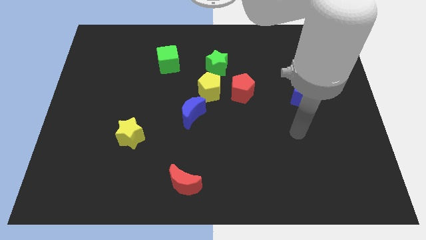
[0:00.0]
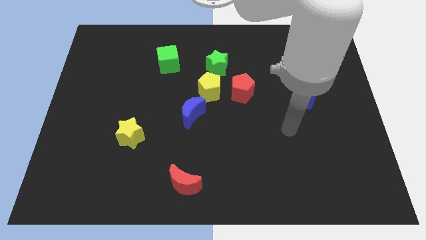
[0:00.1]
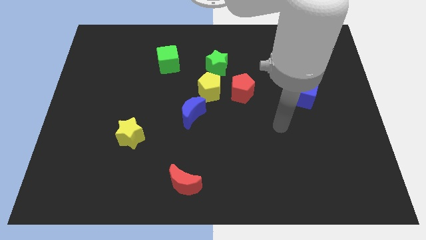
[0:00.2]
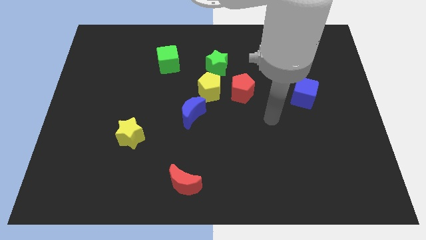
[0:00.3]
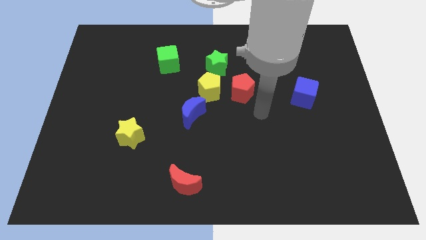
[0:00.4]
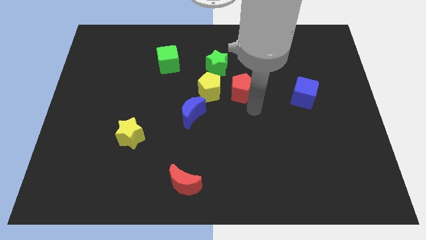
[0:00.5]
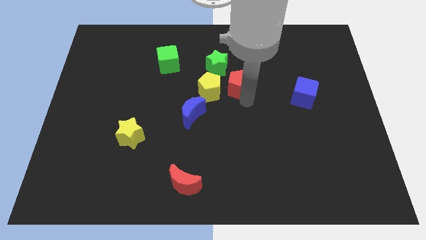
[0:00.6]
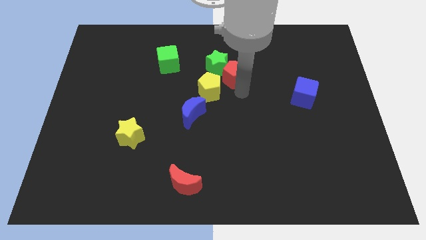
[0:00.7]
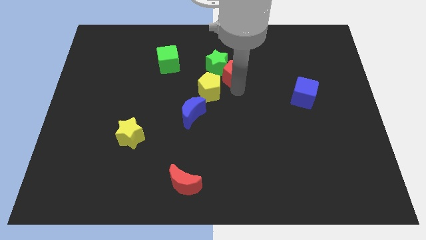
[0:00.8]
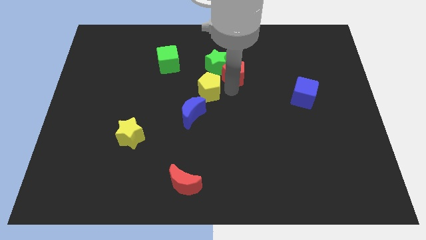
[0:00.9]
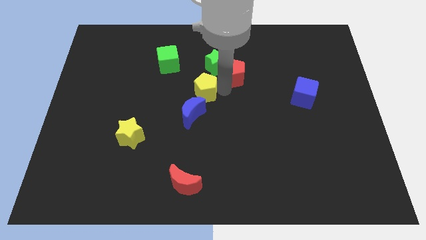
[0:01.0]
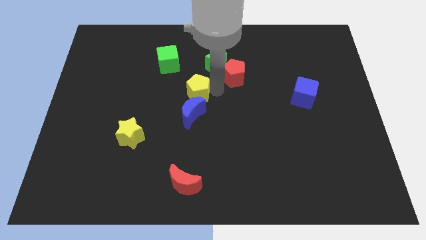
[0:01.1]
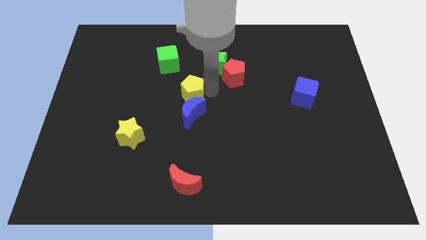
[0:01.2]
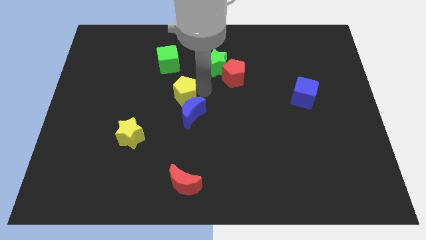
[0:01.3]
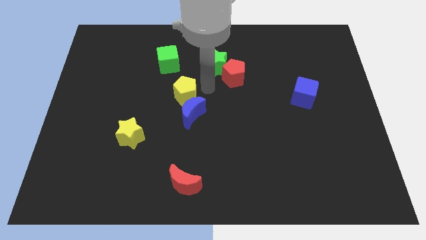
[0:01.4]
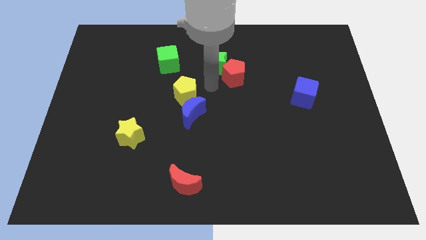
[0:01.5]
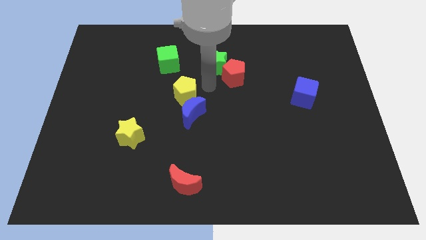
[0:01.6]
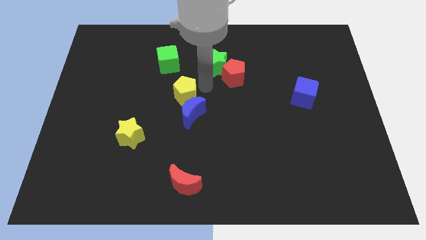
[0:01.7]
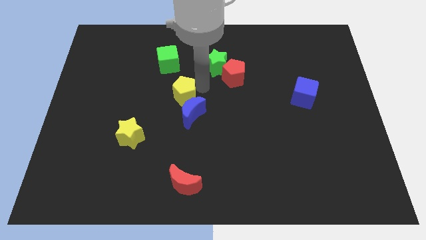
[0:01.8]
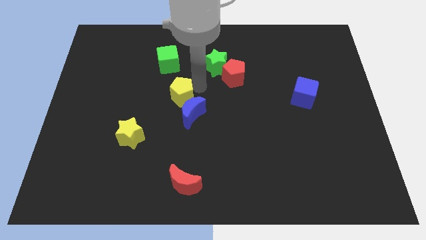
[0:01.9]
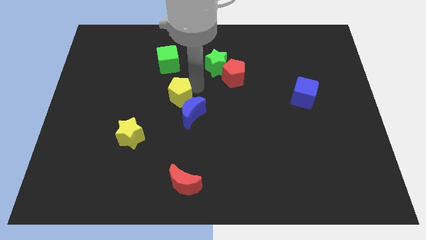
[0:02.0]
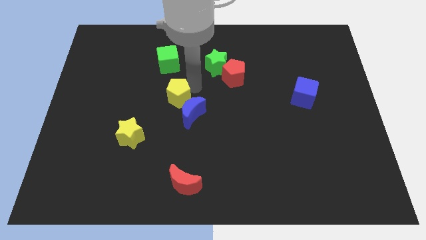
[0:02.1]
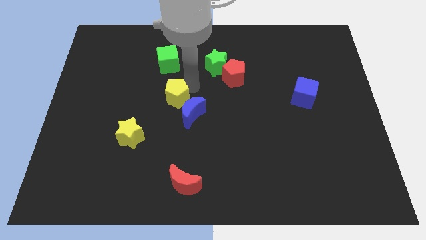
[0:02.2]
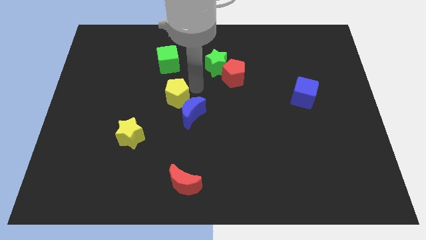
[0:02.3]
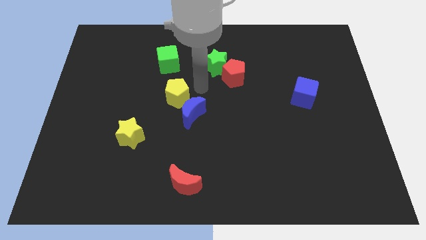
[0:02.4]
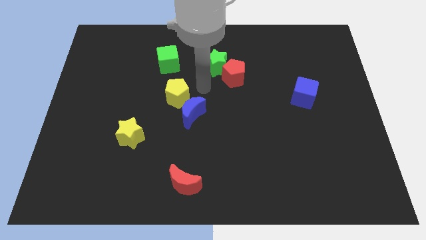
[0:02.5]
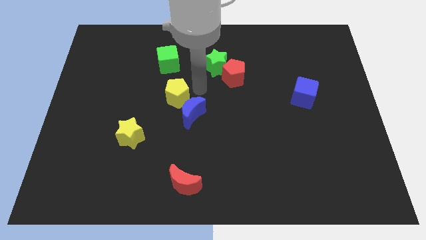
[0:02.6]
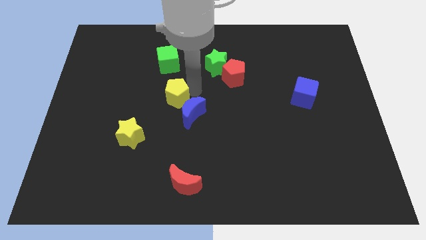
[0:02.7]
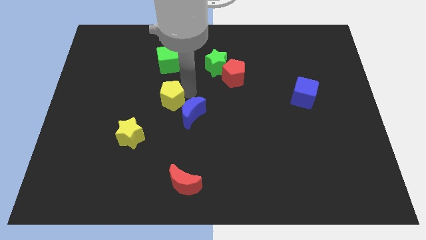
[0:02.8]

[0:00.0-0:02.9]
separate the yellow pentagon from the group

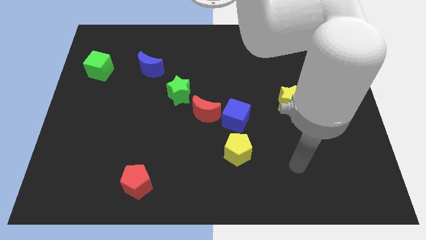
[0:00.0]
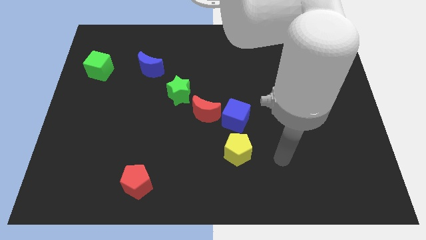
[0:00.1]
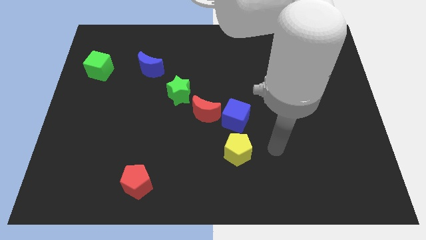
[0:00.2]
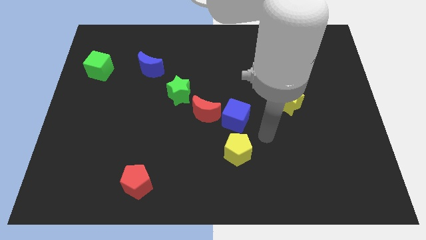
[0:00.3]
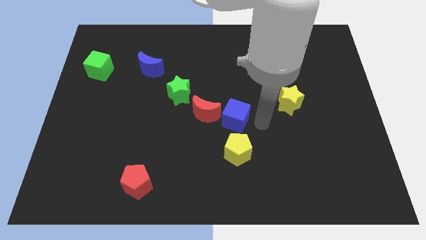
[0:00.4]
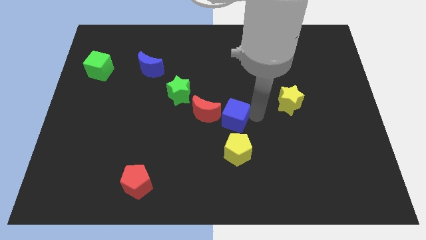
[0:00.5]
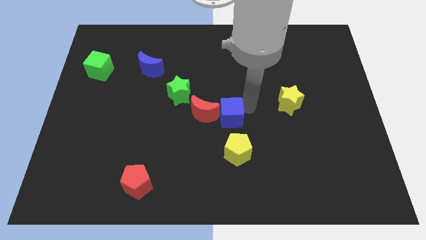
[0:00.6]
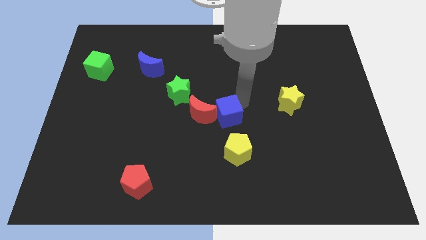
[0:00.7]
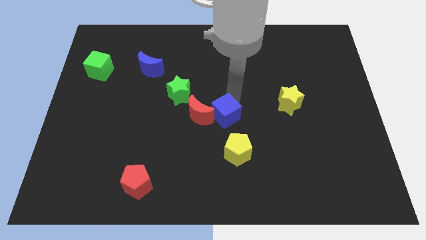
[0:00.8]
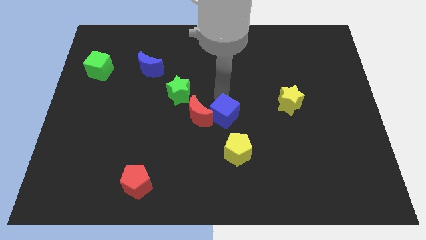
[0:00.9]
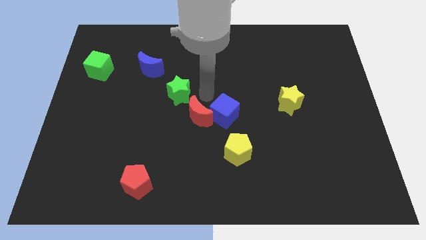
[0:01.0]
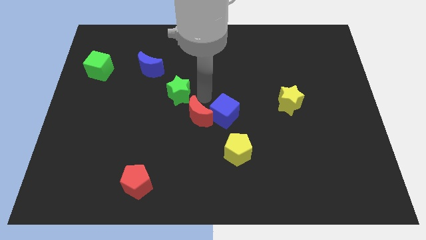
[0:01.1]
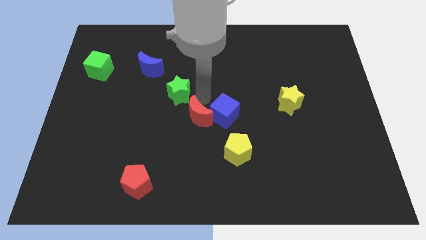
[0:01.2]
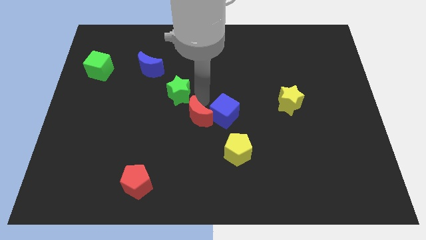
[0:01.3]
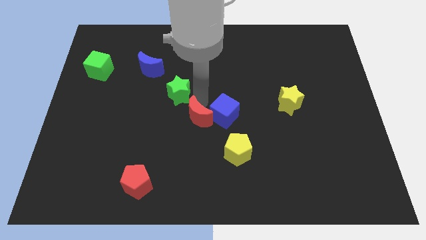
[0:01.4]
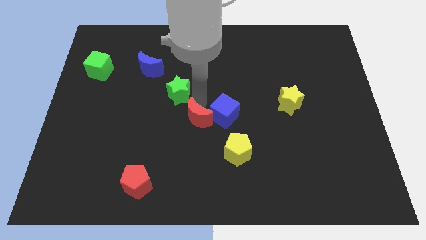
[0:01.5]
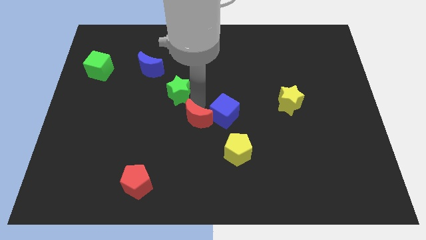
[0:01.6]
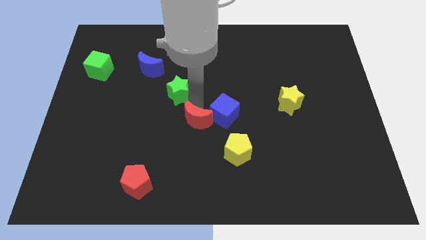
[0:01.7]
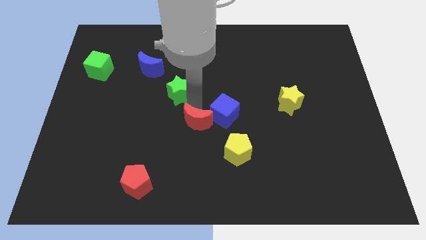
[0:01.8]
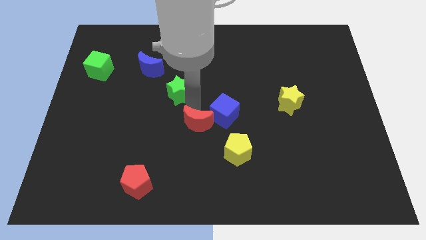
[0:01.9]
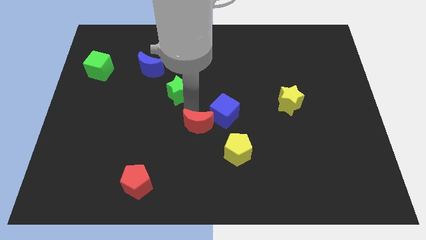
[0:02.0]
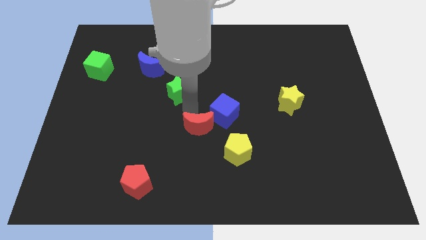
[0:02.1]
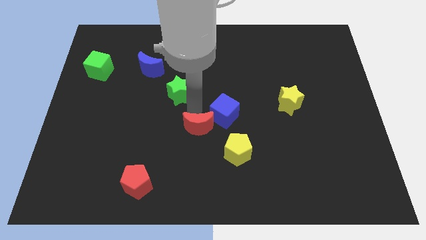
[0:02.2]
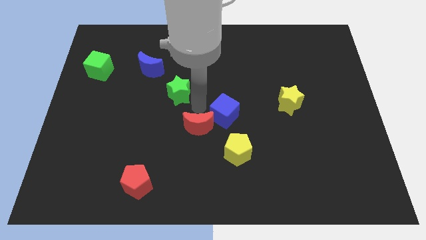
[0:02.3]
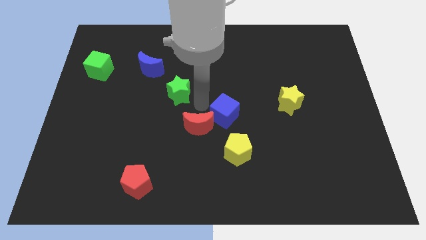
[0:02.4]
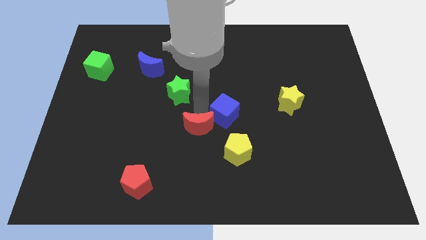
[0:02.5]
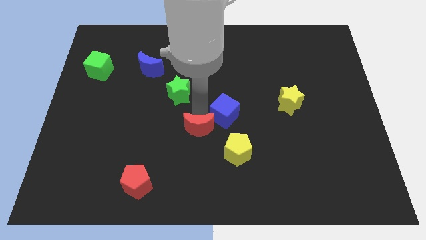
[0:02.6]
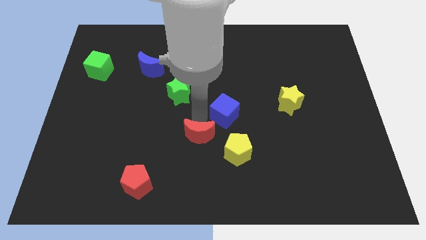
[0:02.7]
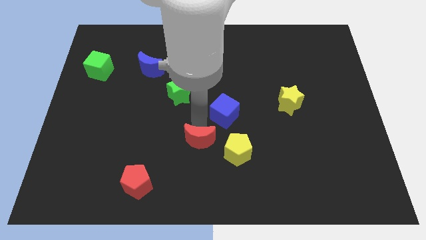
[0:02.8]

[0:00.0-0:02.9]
separate the red moon from the blue cube and green star

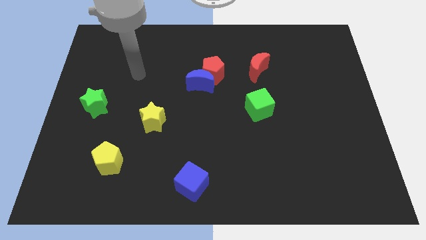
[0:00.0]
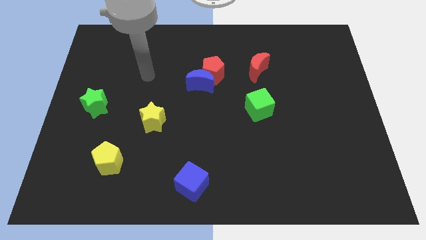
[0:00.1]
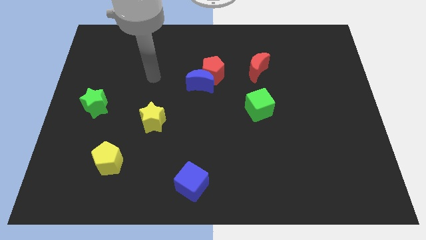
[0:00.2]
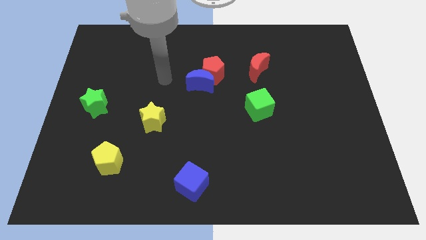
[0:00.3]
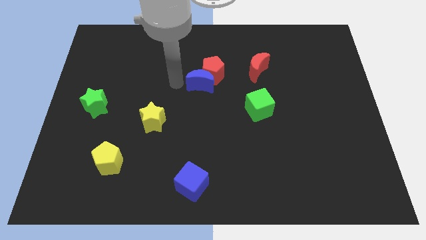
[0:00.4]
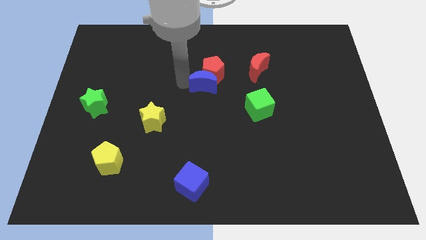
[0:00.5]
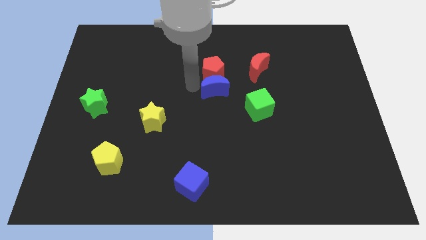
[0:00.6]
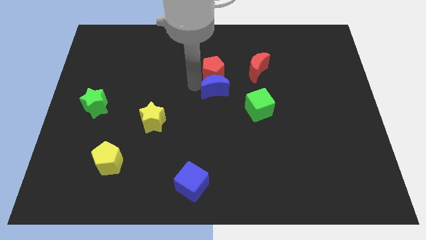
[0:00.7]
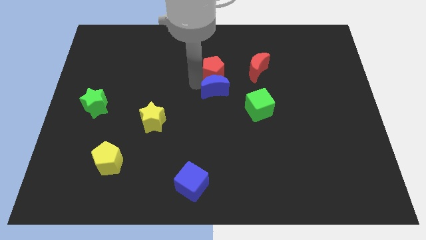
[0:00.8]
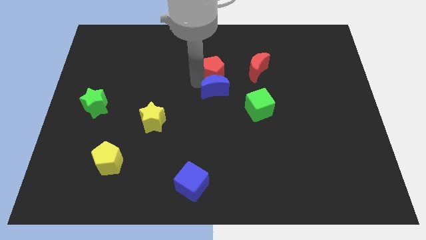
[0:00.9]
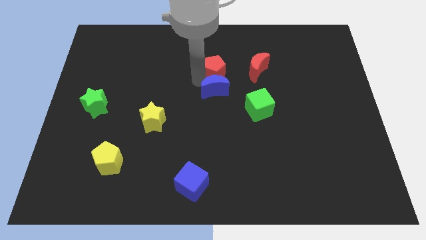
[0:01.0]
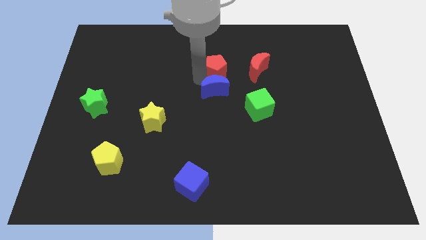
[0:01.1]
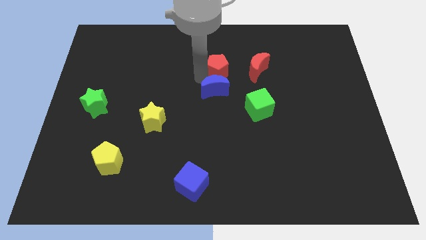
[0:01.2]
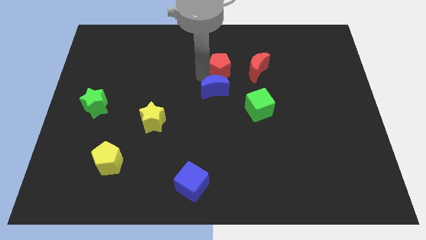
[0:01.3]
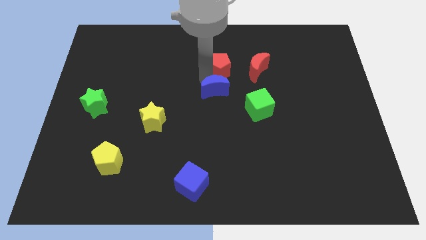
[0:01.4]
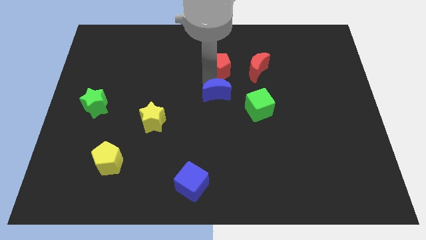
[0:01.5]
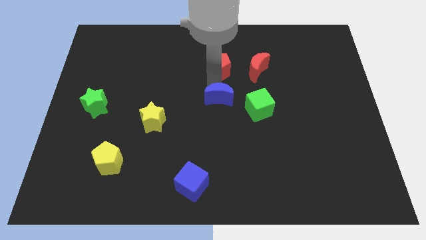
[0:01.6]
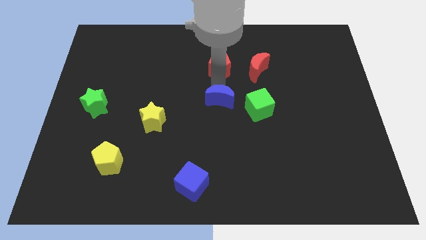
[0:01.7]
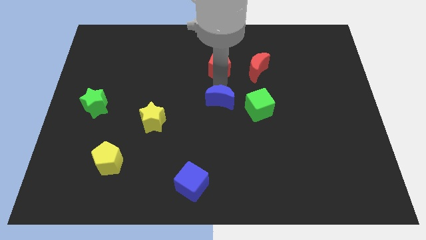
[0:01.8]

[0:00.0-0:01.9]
separate the red pentagon from the blue moon

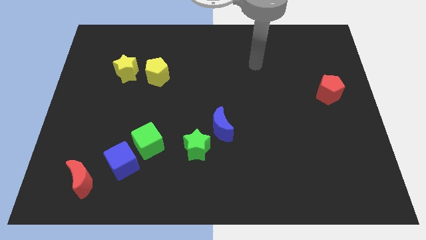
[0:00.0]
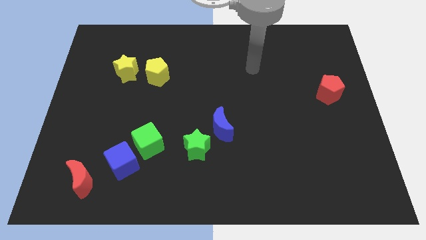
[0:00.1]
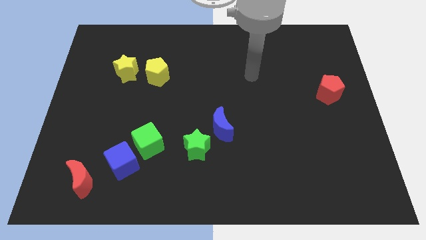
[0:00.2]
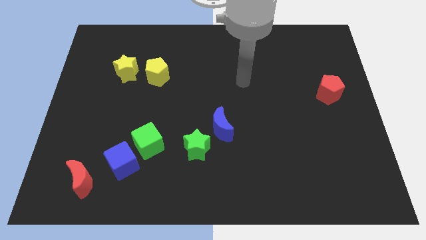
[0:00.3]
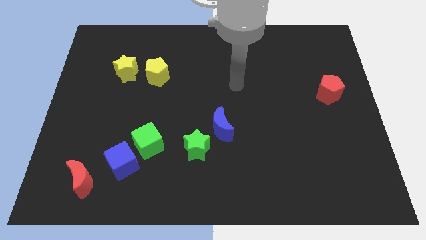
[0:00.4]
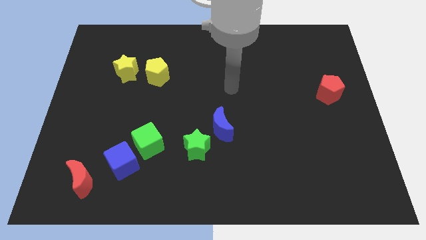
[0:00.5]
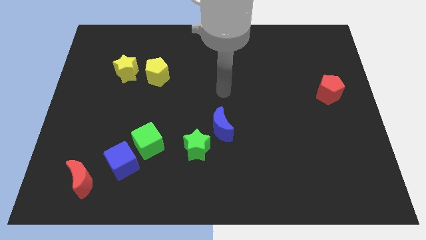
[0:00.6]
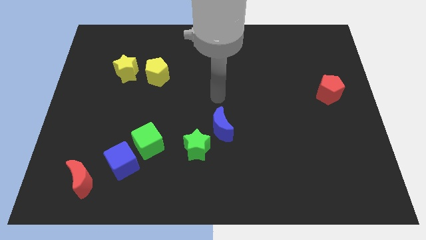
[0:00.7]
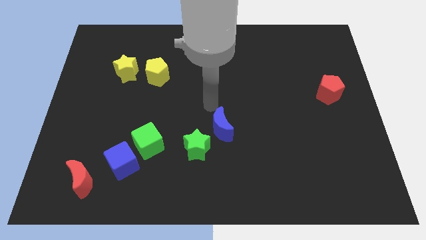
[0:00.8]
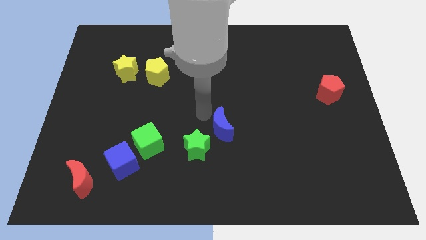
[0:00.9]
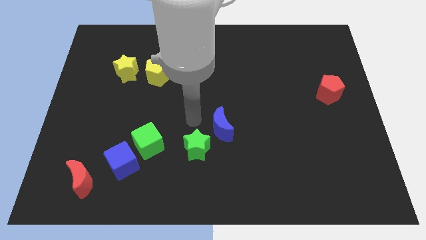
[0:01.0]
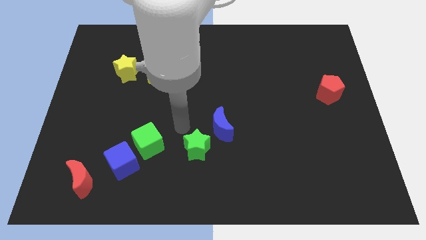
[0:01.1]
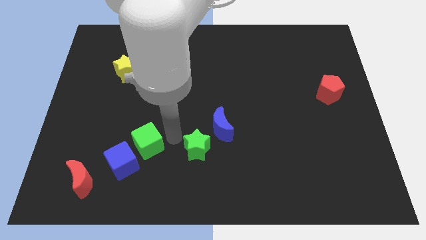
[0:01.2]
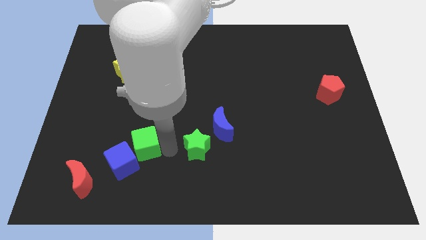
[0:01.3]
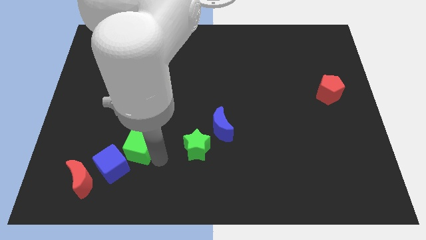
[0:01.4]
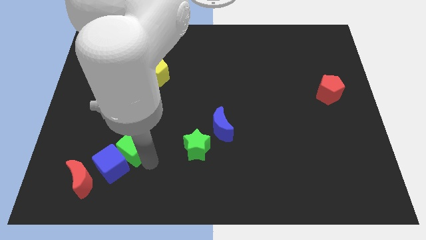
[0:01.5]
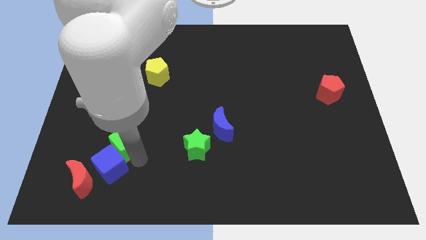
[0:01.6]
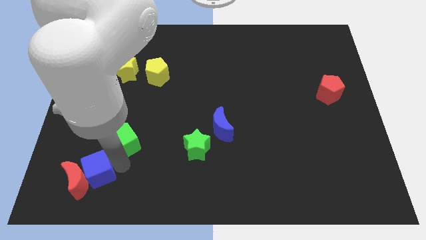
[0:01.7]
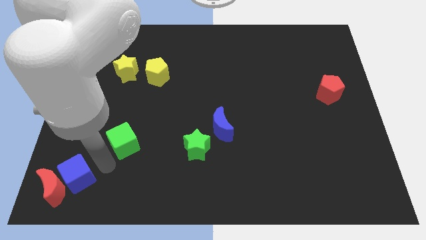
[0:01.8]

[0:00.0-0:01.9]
pull the green cube apart from the blue cube
